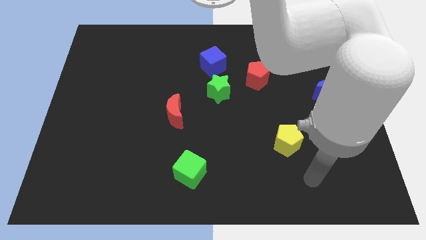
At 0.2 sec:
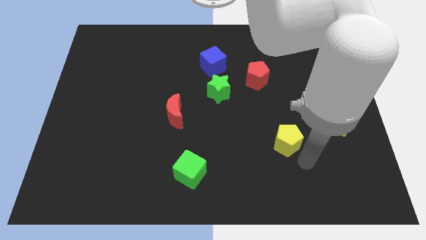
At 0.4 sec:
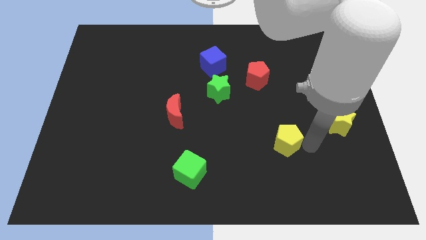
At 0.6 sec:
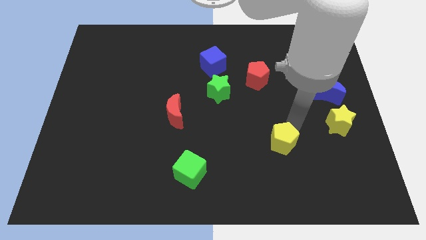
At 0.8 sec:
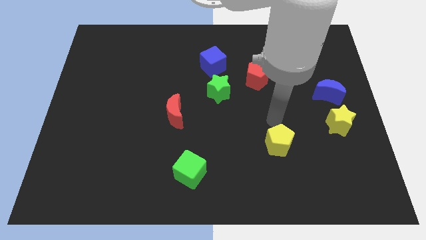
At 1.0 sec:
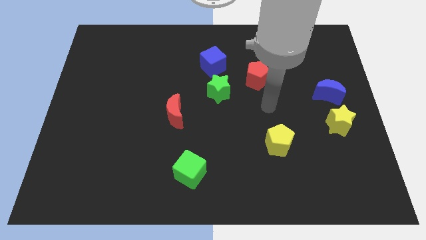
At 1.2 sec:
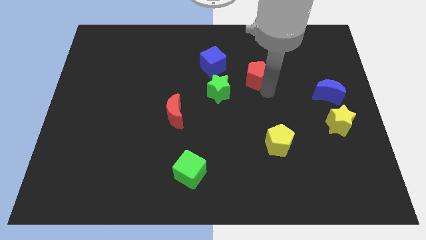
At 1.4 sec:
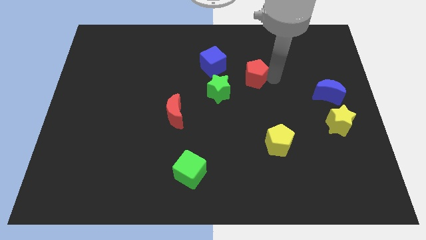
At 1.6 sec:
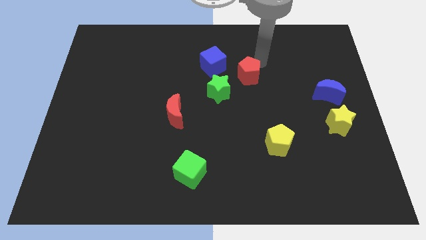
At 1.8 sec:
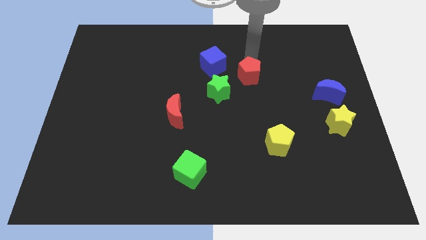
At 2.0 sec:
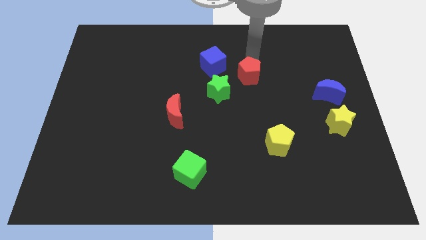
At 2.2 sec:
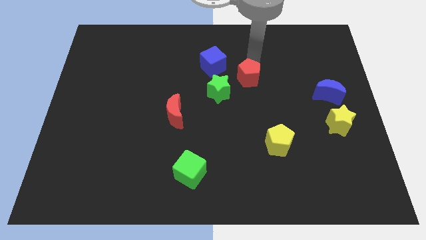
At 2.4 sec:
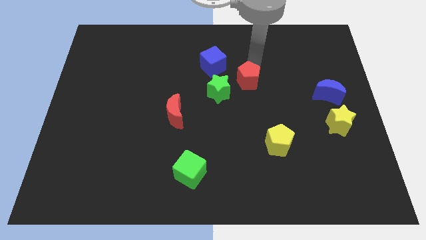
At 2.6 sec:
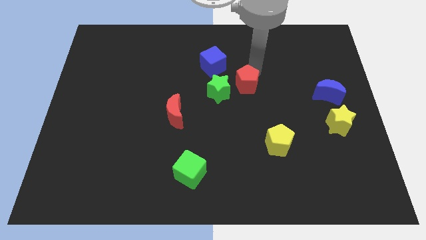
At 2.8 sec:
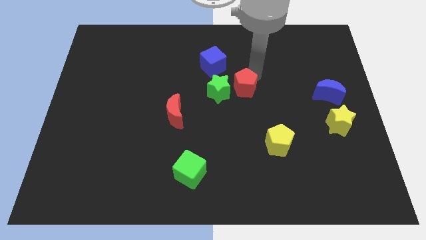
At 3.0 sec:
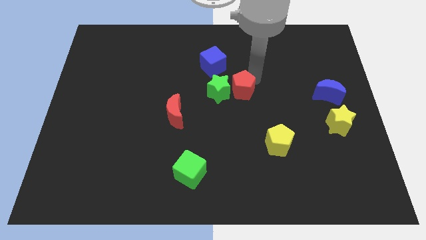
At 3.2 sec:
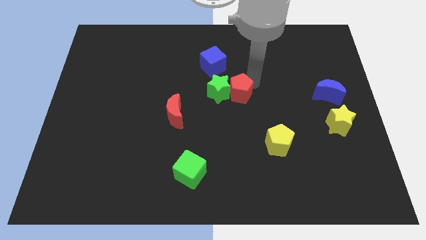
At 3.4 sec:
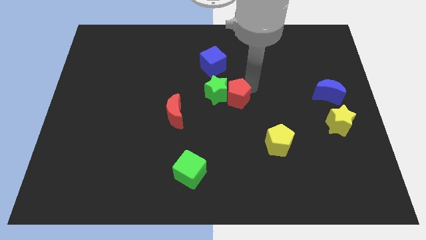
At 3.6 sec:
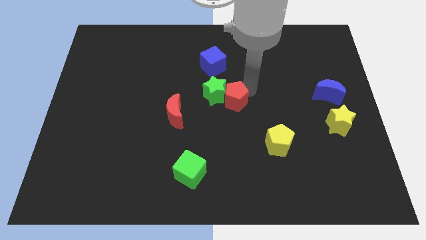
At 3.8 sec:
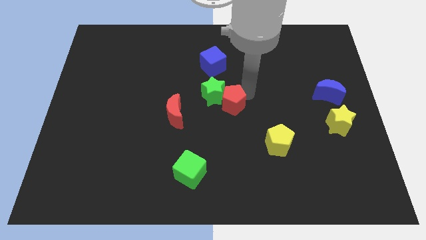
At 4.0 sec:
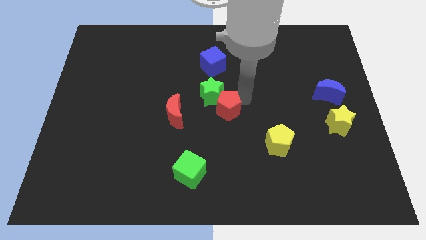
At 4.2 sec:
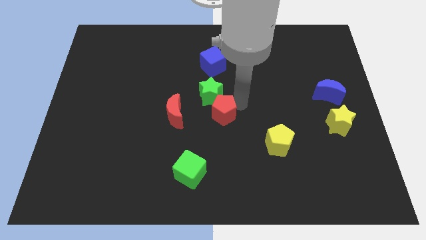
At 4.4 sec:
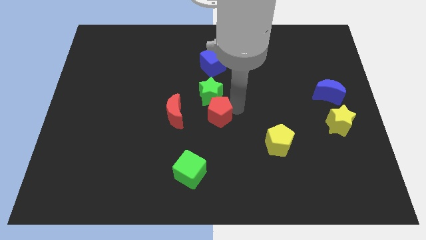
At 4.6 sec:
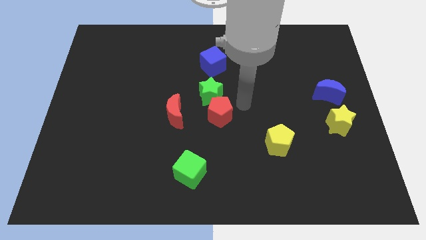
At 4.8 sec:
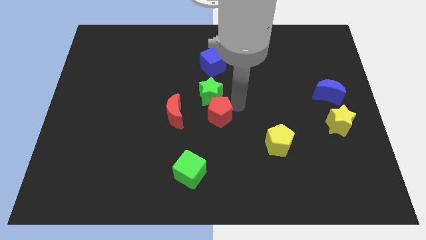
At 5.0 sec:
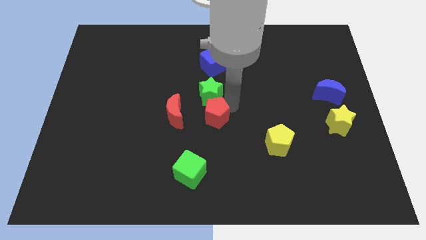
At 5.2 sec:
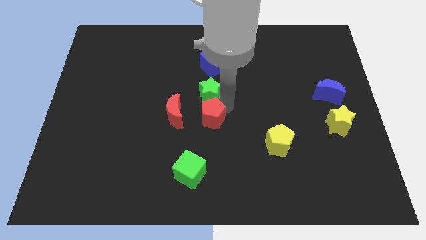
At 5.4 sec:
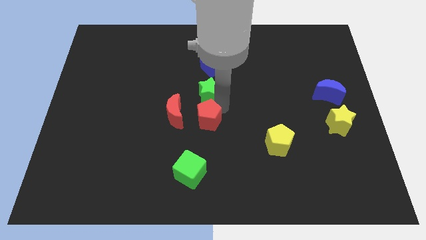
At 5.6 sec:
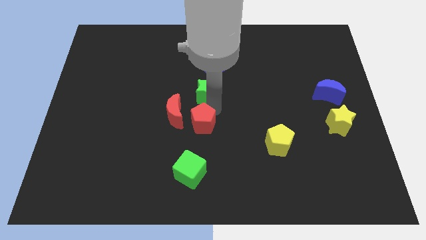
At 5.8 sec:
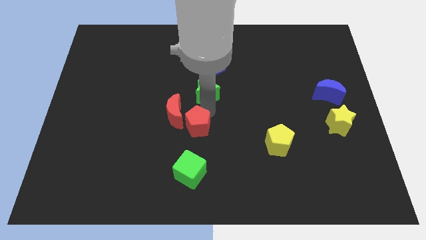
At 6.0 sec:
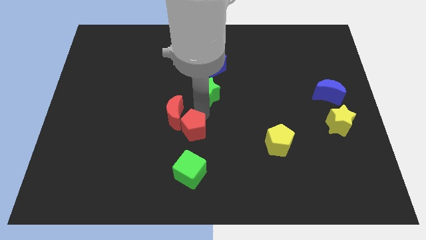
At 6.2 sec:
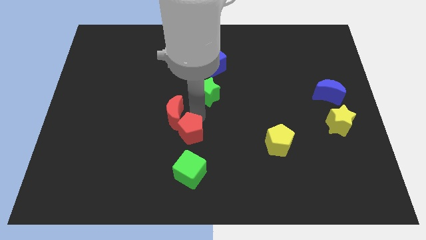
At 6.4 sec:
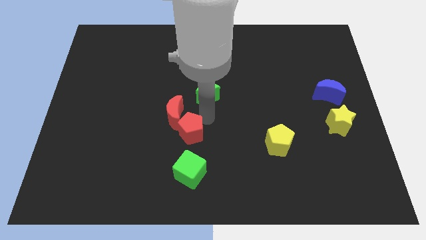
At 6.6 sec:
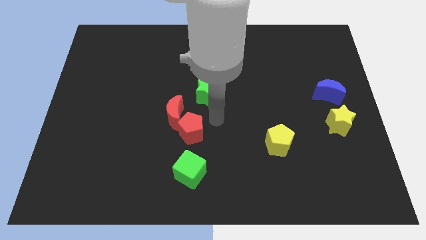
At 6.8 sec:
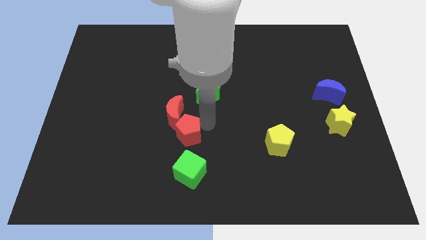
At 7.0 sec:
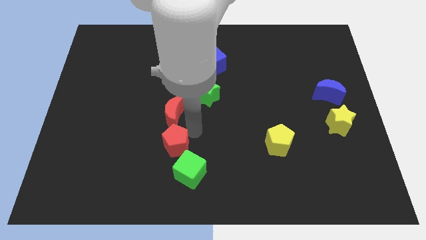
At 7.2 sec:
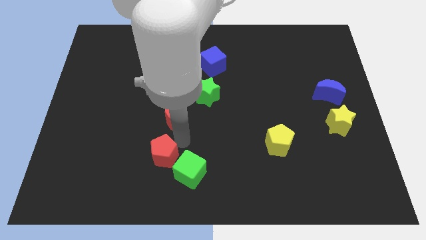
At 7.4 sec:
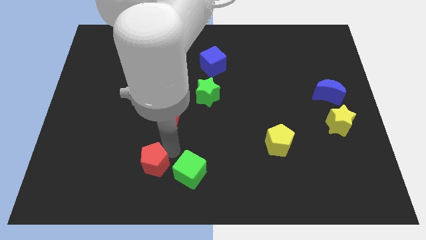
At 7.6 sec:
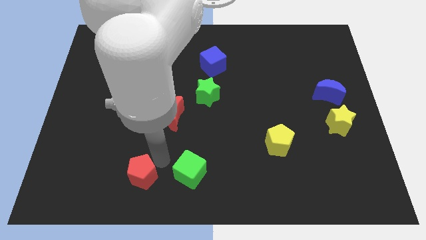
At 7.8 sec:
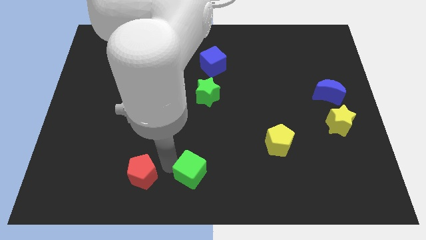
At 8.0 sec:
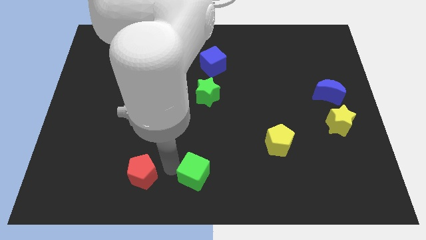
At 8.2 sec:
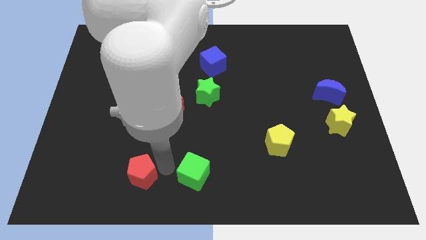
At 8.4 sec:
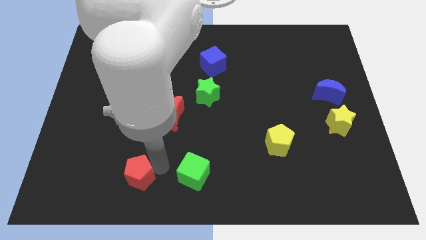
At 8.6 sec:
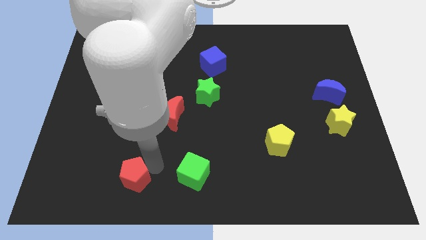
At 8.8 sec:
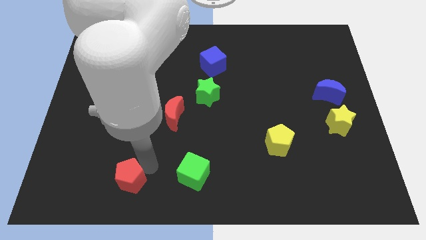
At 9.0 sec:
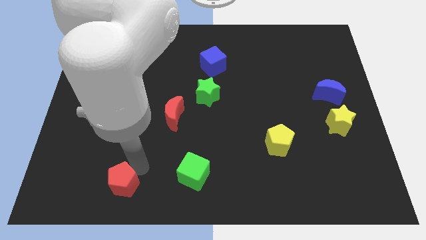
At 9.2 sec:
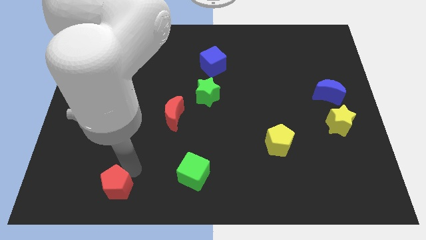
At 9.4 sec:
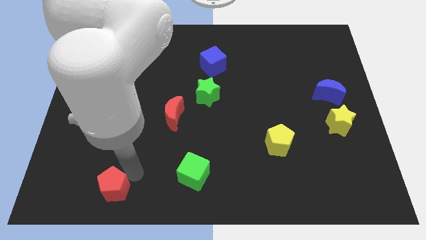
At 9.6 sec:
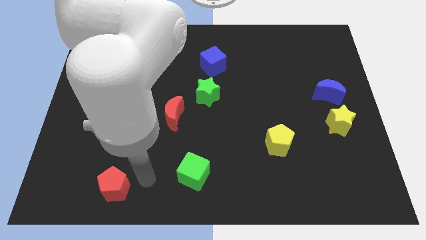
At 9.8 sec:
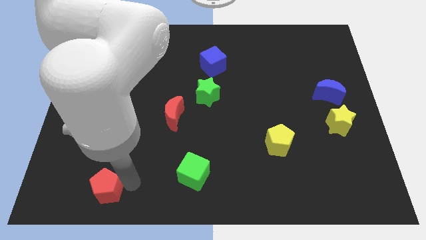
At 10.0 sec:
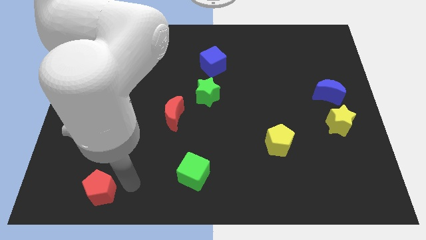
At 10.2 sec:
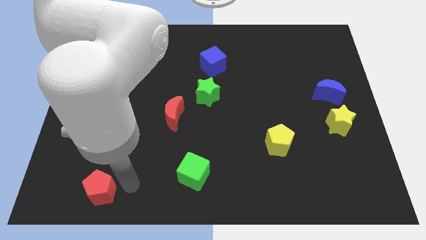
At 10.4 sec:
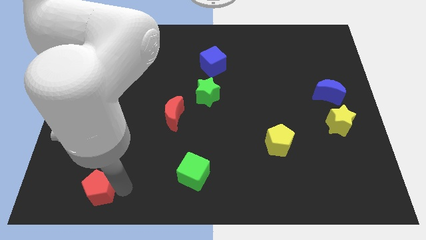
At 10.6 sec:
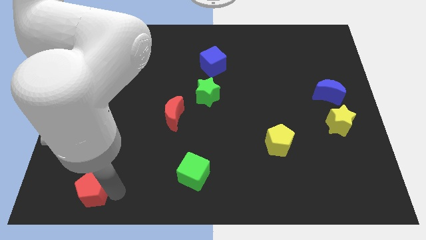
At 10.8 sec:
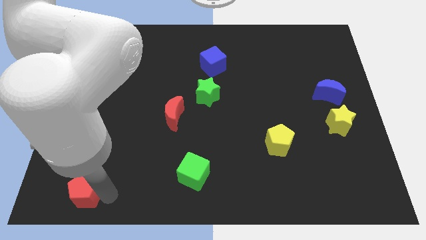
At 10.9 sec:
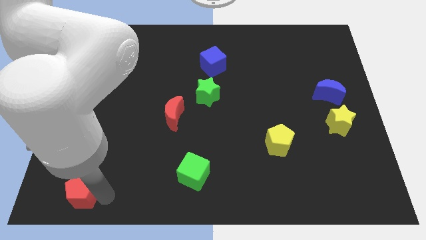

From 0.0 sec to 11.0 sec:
put the red pentagon to the bottom left

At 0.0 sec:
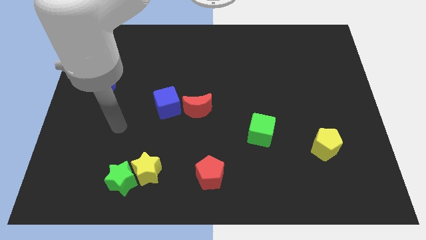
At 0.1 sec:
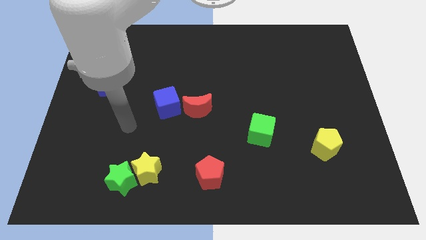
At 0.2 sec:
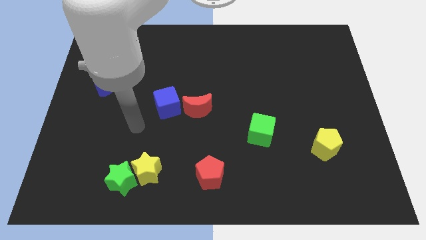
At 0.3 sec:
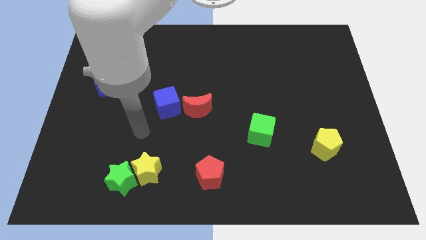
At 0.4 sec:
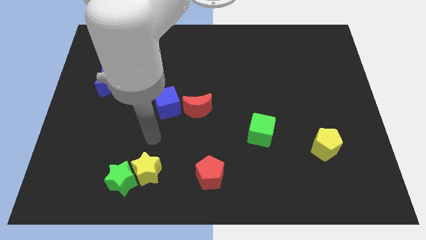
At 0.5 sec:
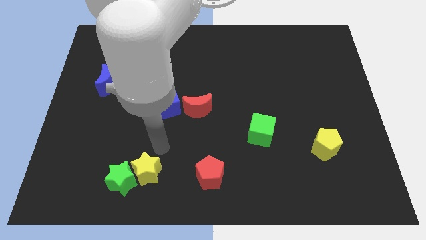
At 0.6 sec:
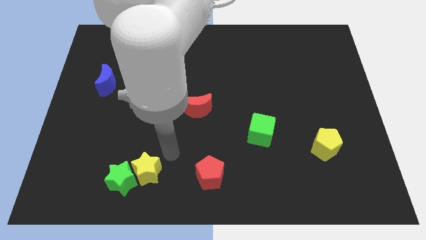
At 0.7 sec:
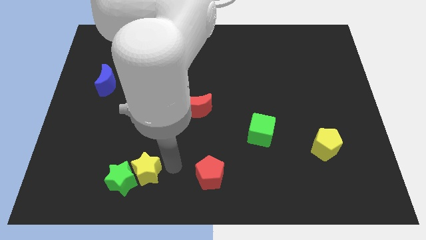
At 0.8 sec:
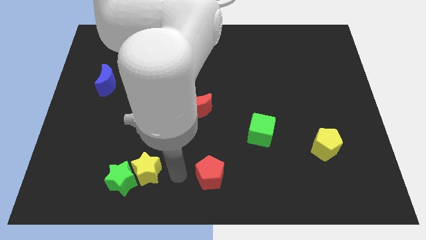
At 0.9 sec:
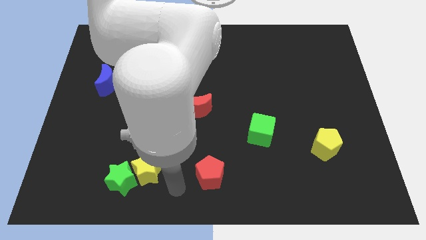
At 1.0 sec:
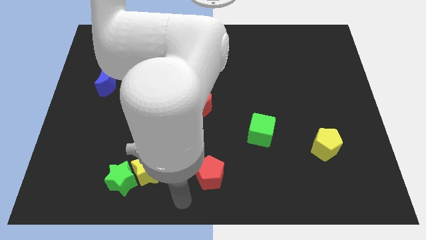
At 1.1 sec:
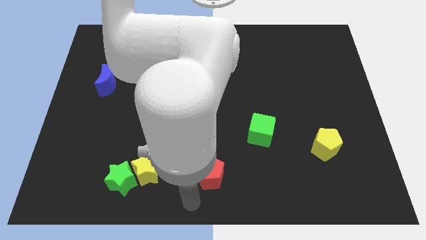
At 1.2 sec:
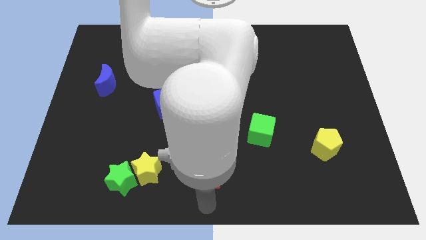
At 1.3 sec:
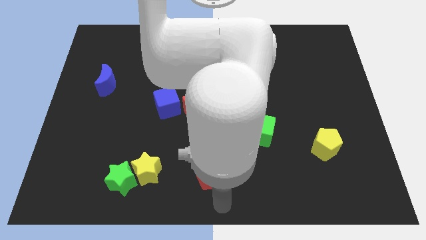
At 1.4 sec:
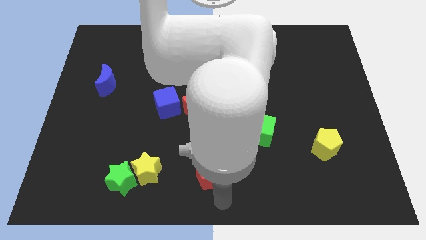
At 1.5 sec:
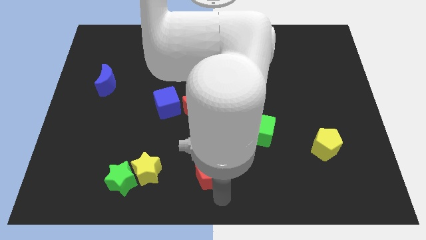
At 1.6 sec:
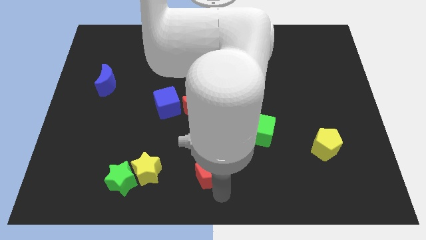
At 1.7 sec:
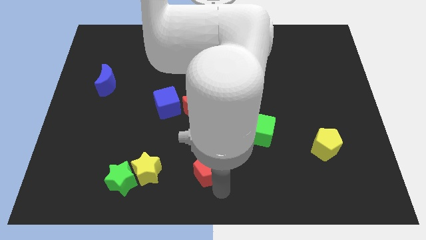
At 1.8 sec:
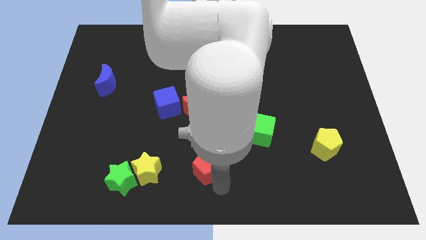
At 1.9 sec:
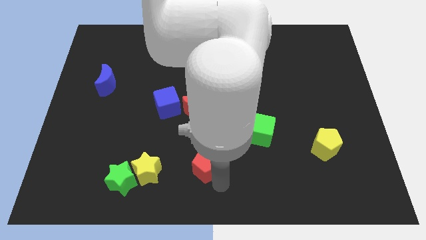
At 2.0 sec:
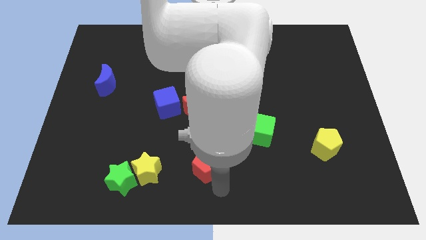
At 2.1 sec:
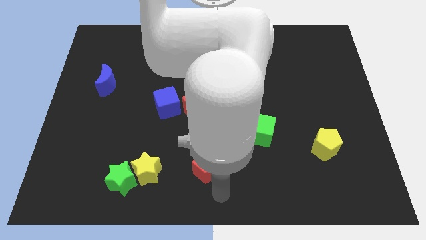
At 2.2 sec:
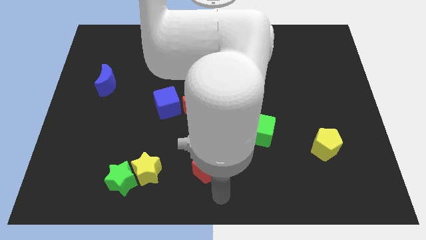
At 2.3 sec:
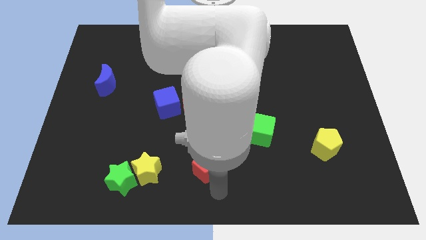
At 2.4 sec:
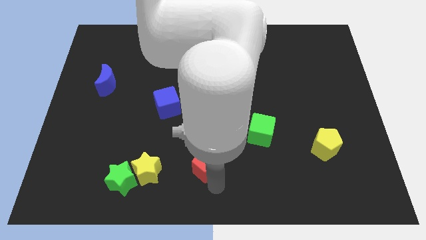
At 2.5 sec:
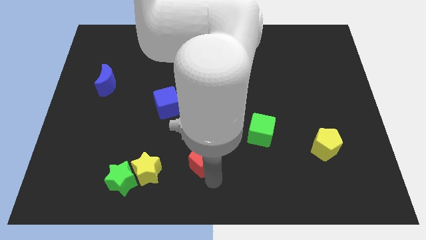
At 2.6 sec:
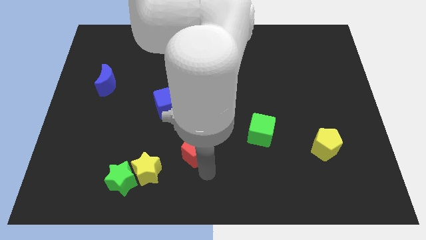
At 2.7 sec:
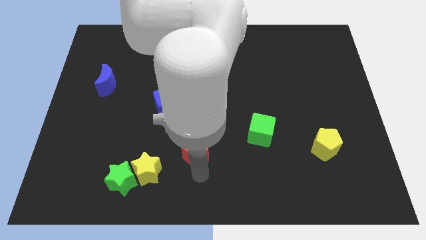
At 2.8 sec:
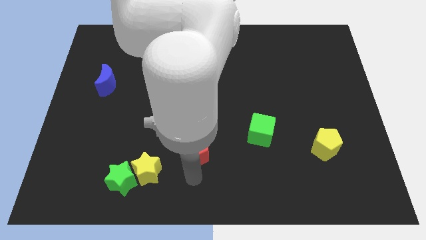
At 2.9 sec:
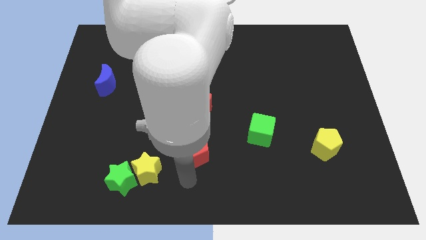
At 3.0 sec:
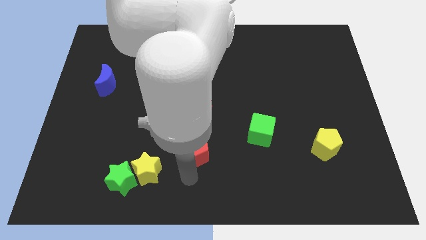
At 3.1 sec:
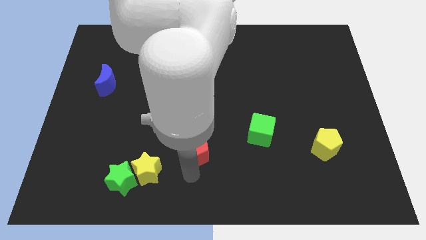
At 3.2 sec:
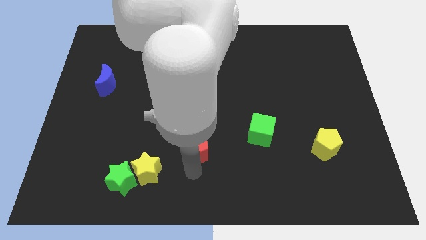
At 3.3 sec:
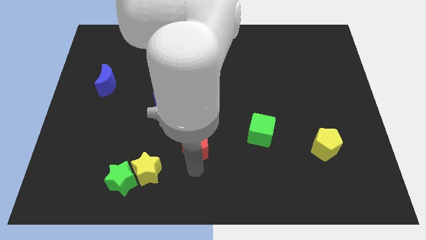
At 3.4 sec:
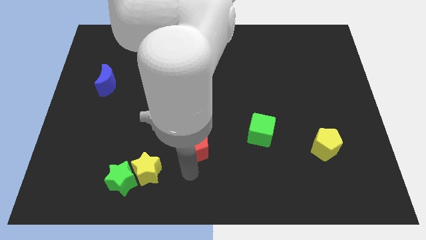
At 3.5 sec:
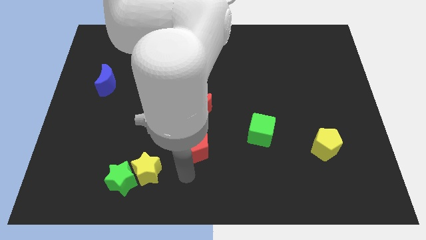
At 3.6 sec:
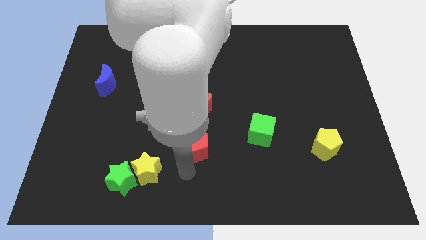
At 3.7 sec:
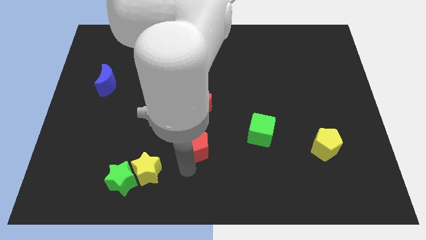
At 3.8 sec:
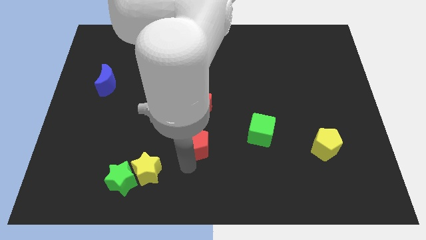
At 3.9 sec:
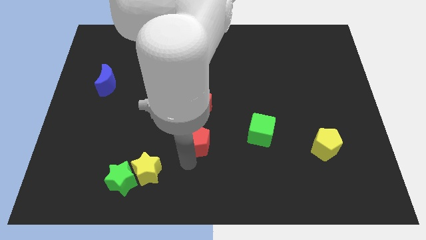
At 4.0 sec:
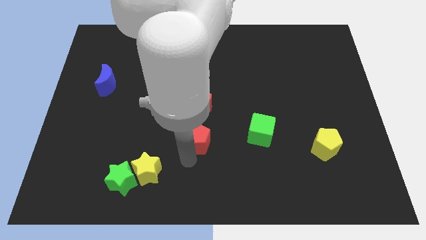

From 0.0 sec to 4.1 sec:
move the red pentagon to the middle of the board
